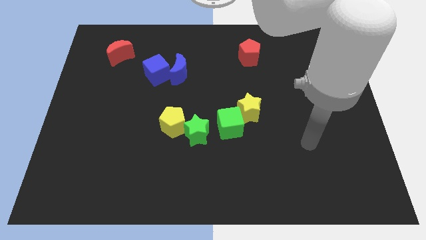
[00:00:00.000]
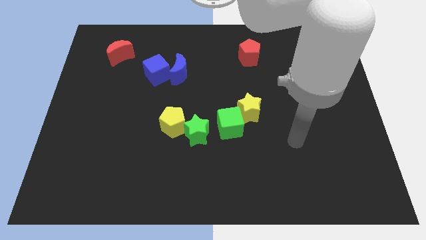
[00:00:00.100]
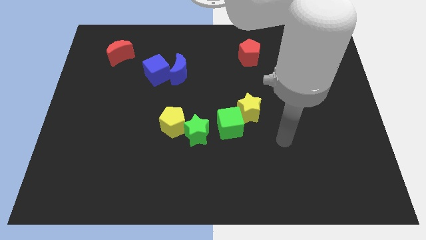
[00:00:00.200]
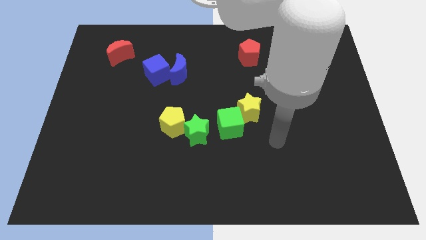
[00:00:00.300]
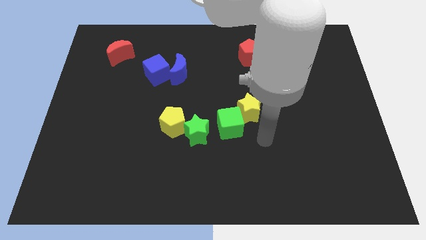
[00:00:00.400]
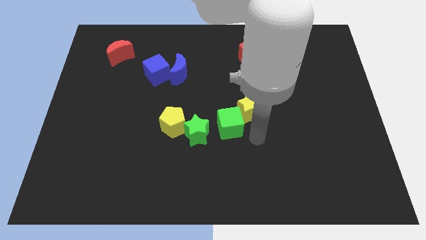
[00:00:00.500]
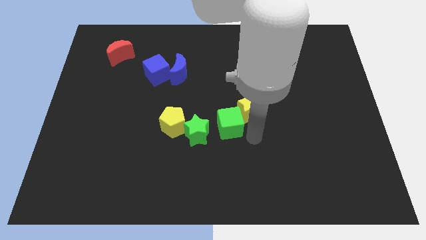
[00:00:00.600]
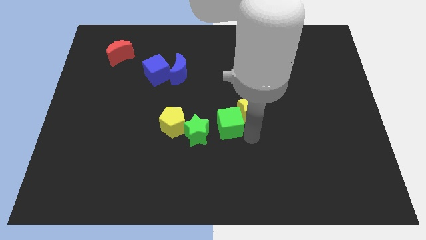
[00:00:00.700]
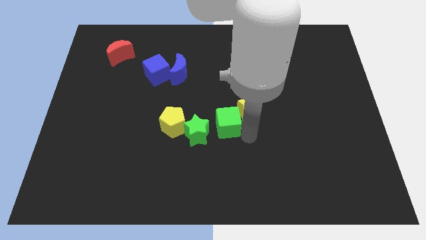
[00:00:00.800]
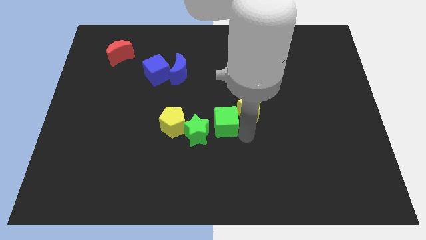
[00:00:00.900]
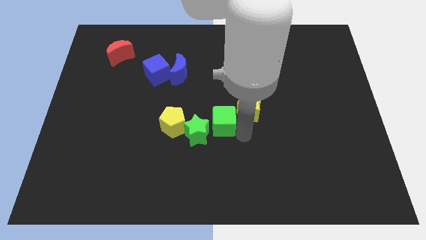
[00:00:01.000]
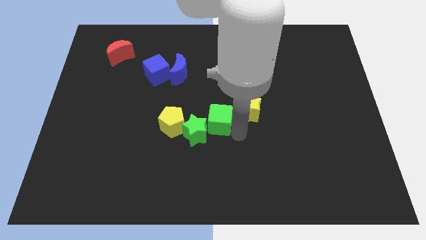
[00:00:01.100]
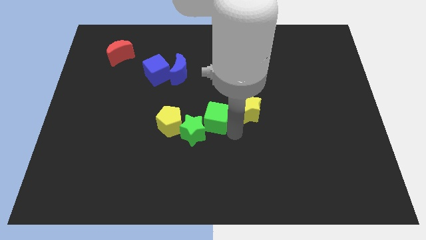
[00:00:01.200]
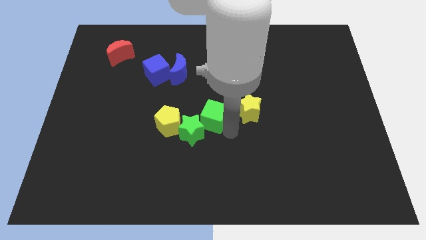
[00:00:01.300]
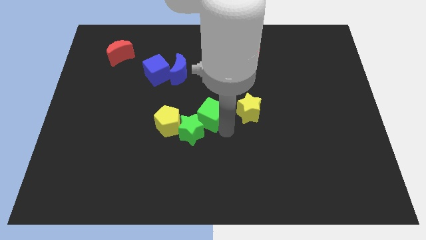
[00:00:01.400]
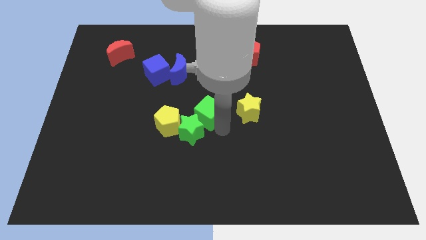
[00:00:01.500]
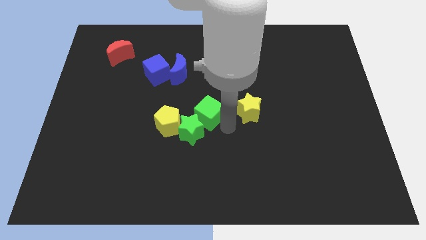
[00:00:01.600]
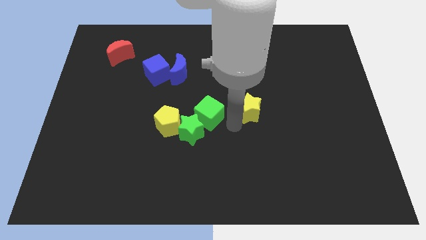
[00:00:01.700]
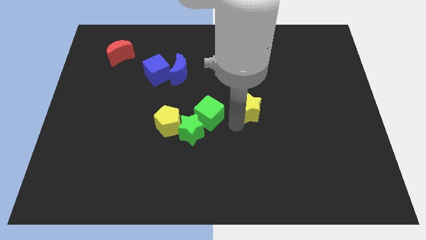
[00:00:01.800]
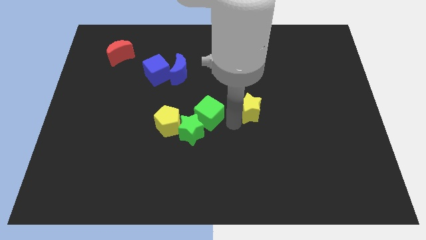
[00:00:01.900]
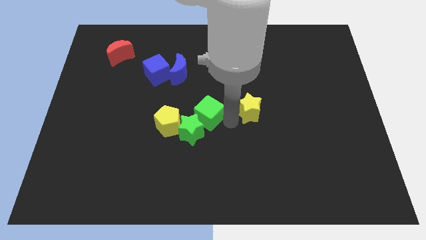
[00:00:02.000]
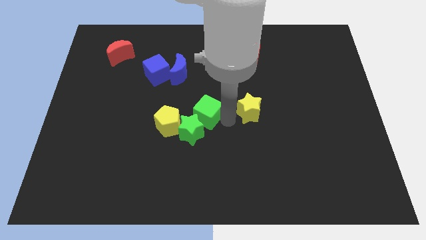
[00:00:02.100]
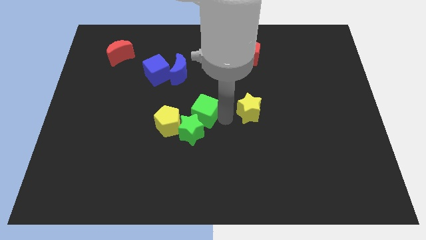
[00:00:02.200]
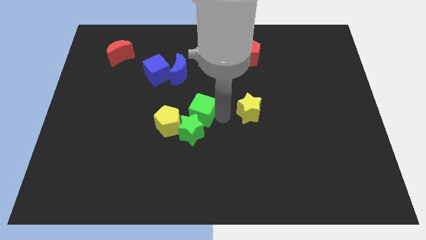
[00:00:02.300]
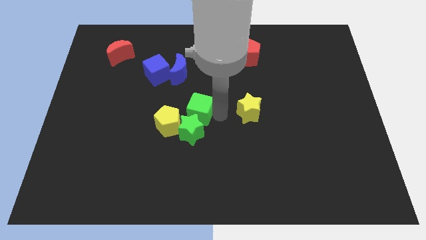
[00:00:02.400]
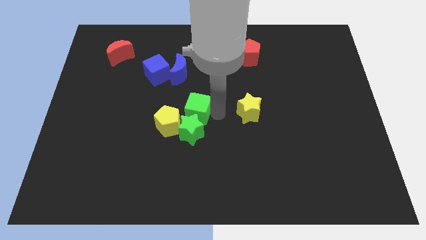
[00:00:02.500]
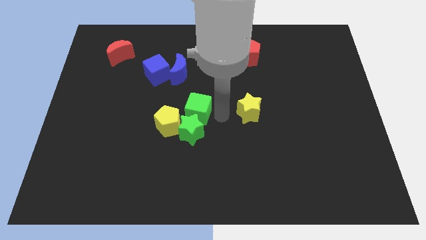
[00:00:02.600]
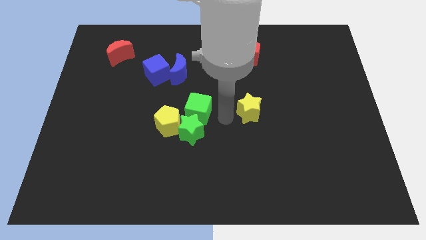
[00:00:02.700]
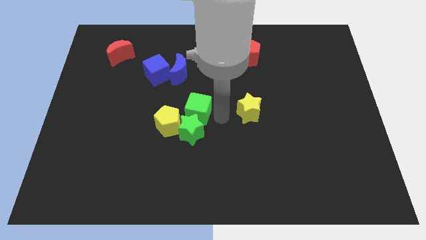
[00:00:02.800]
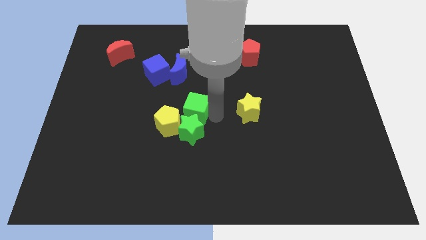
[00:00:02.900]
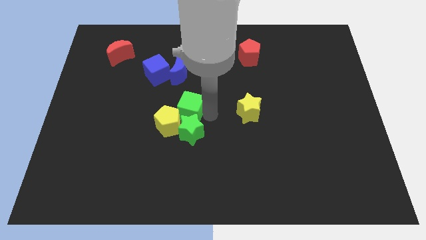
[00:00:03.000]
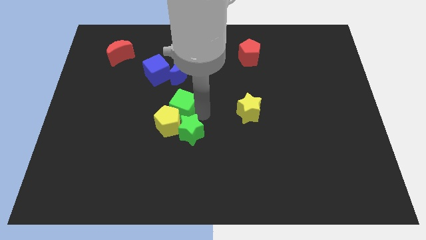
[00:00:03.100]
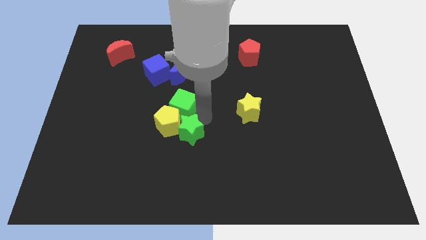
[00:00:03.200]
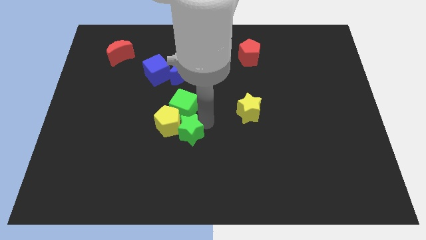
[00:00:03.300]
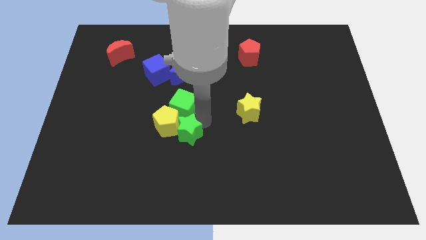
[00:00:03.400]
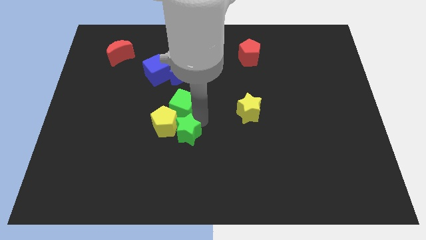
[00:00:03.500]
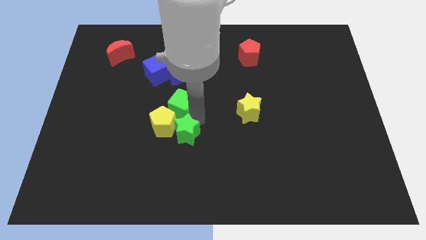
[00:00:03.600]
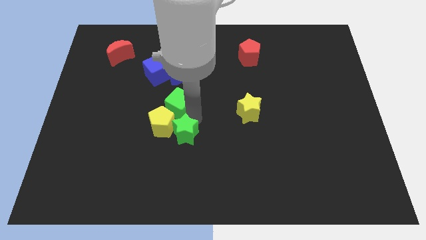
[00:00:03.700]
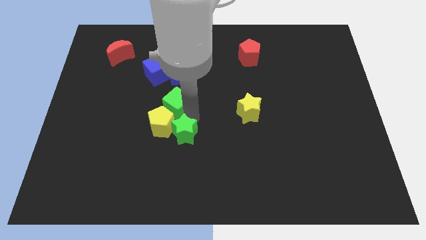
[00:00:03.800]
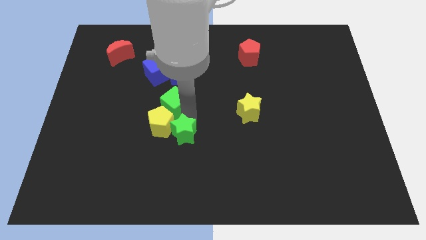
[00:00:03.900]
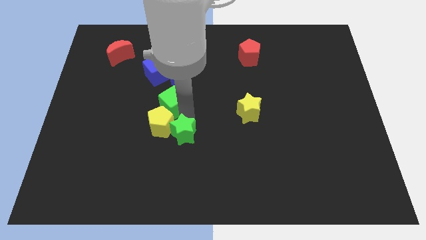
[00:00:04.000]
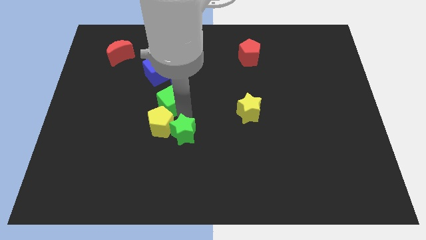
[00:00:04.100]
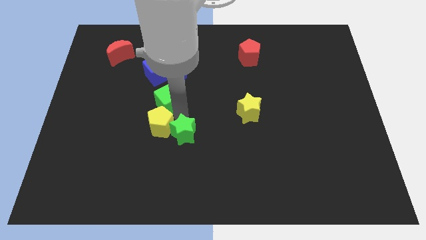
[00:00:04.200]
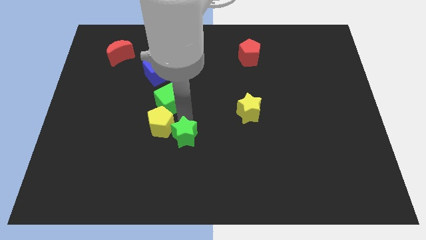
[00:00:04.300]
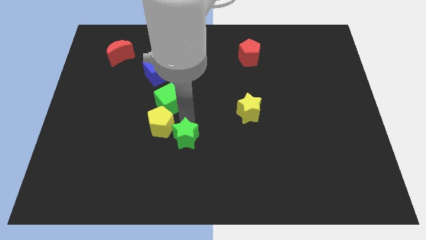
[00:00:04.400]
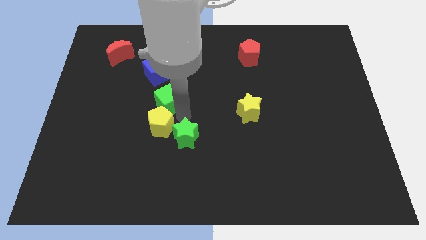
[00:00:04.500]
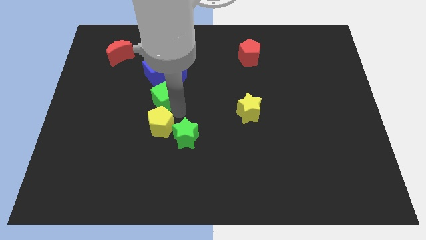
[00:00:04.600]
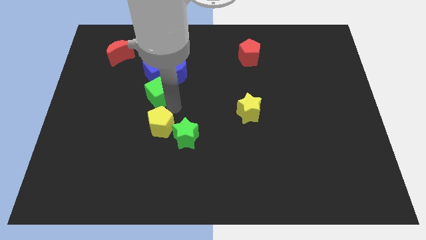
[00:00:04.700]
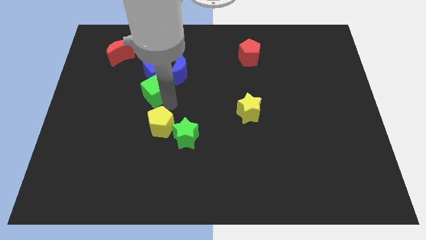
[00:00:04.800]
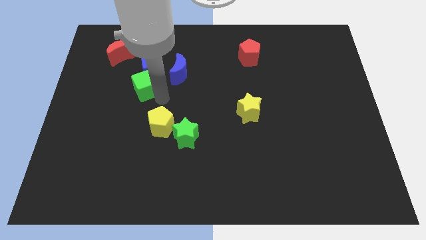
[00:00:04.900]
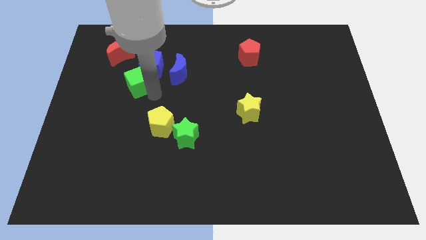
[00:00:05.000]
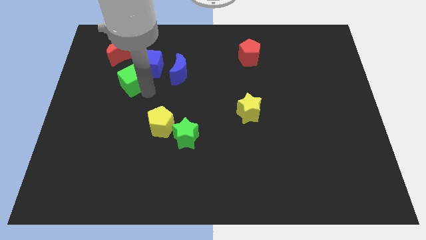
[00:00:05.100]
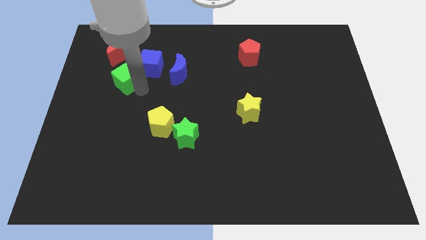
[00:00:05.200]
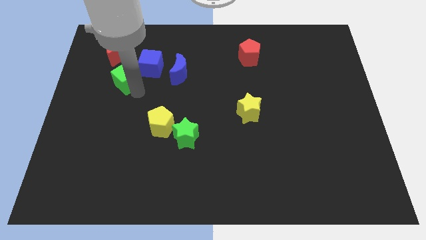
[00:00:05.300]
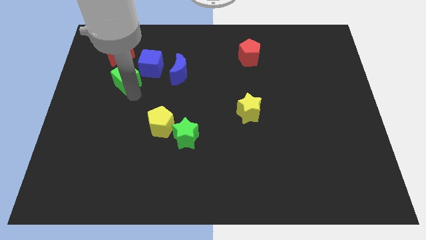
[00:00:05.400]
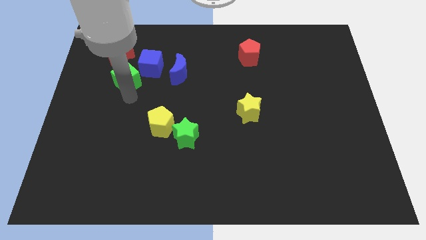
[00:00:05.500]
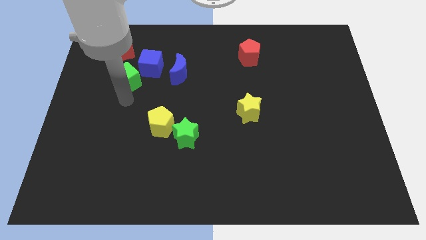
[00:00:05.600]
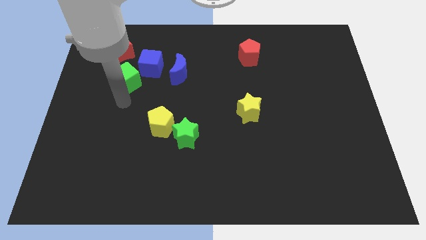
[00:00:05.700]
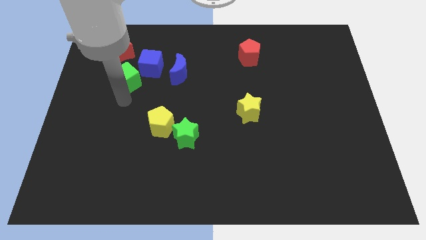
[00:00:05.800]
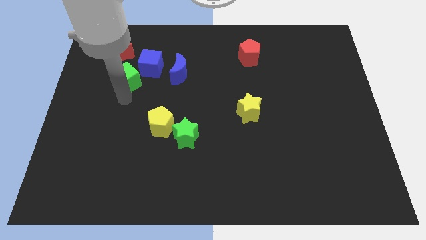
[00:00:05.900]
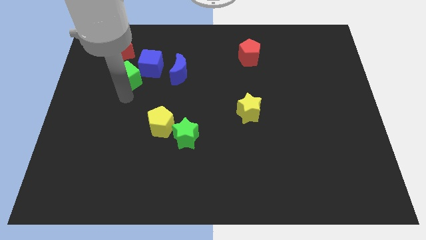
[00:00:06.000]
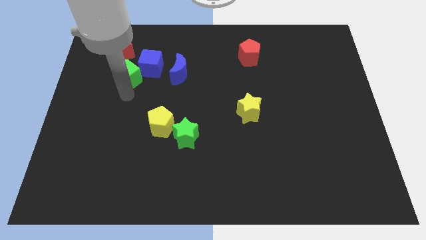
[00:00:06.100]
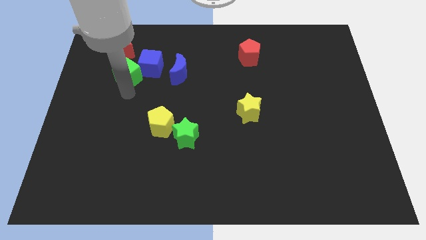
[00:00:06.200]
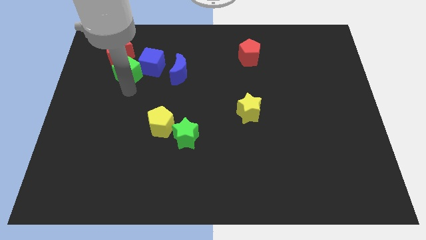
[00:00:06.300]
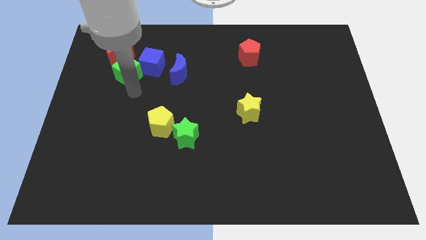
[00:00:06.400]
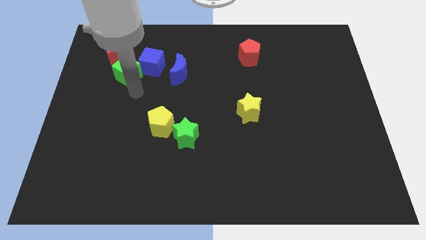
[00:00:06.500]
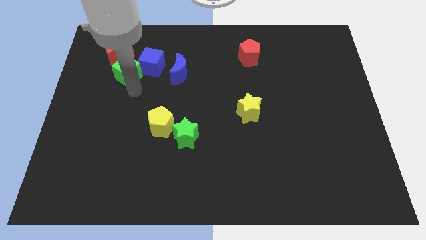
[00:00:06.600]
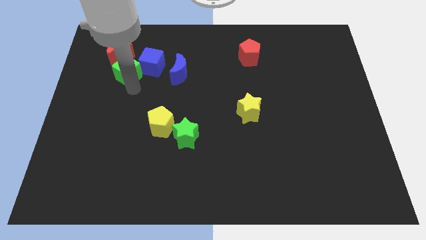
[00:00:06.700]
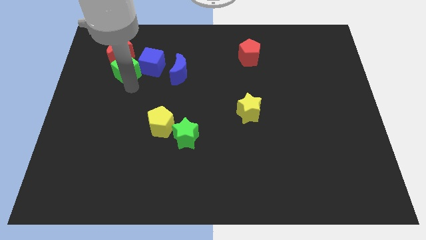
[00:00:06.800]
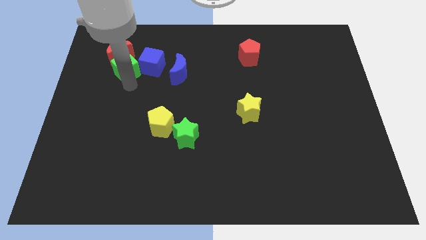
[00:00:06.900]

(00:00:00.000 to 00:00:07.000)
put the green cube close to the red moon
